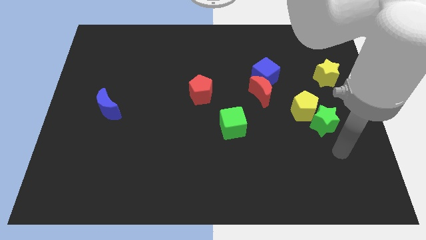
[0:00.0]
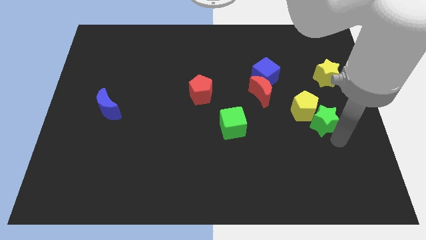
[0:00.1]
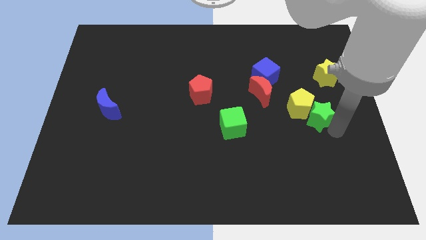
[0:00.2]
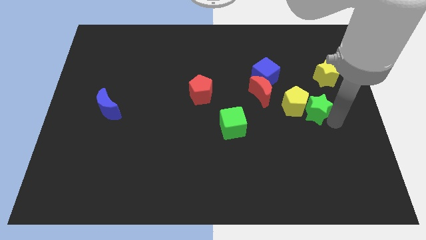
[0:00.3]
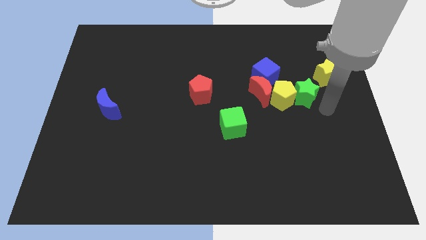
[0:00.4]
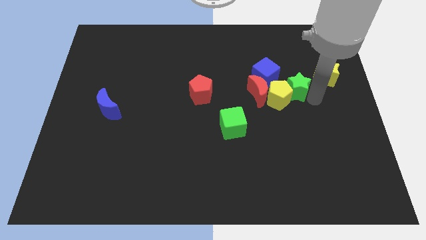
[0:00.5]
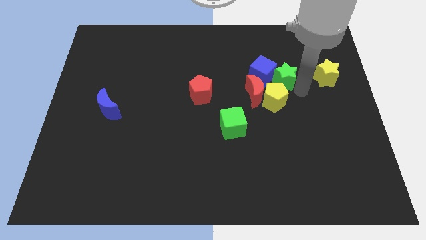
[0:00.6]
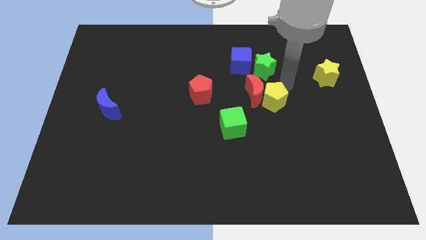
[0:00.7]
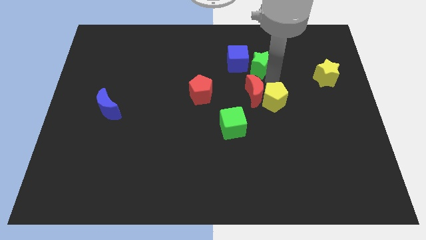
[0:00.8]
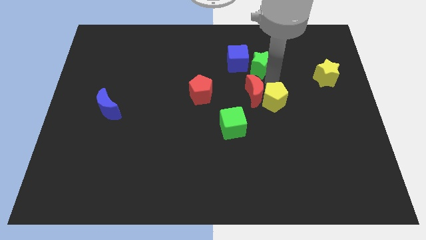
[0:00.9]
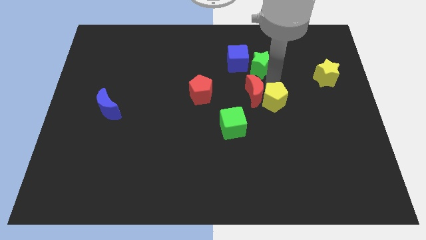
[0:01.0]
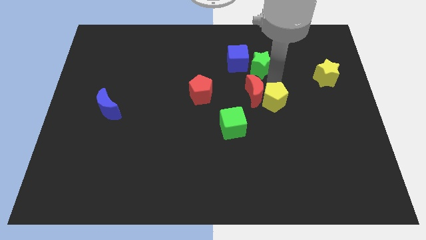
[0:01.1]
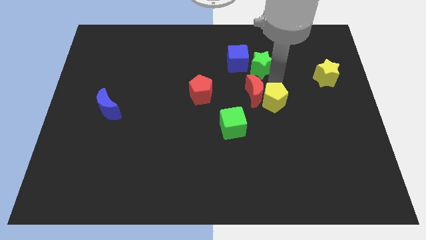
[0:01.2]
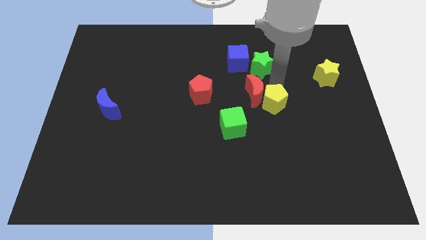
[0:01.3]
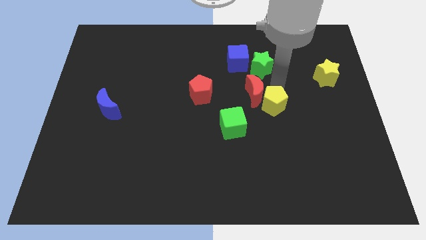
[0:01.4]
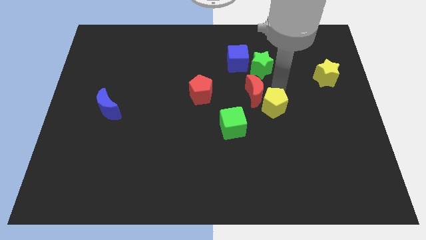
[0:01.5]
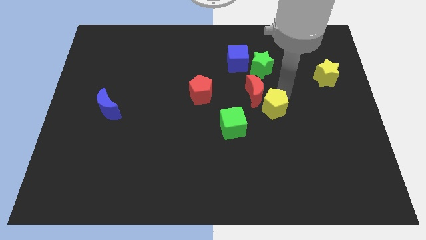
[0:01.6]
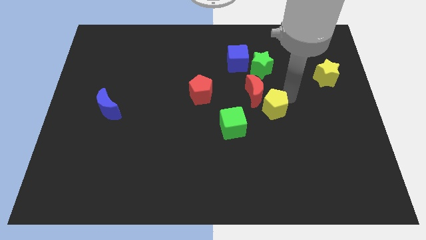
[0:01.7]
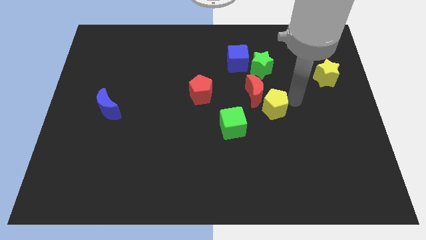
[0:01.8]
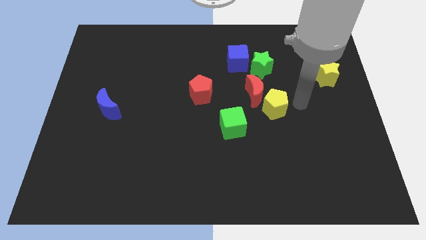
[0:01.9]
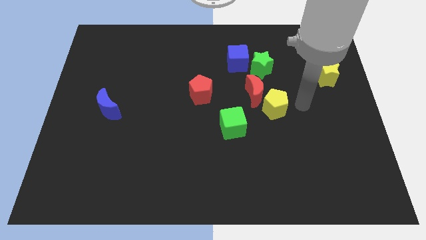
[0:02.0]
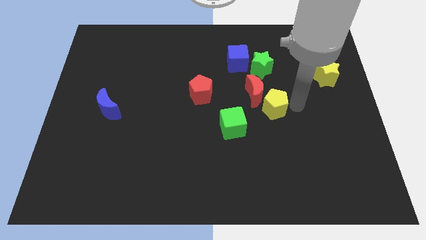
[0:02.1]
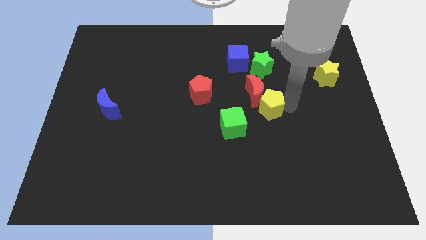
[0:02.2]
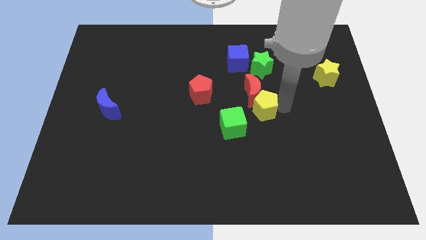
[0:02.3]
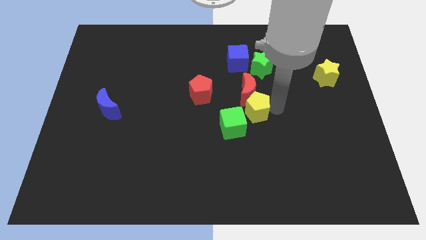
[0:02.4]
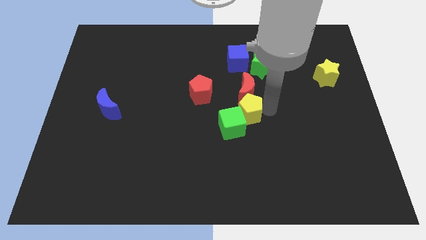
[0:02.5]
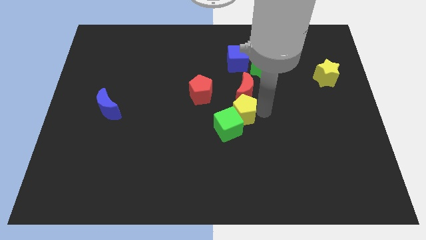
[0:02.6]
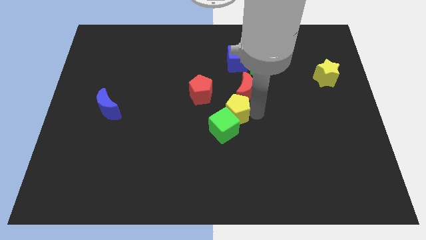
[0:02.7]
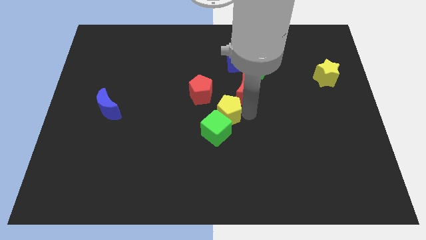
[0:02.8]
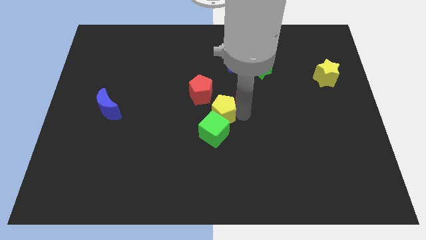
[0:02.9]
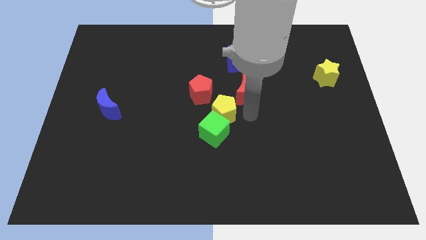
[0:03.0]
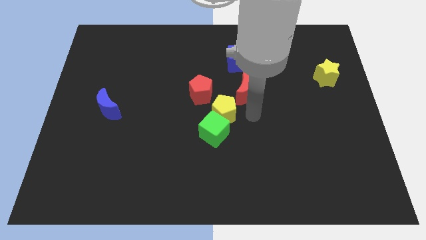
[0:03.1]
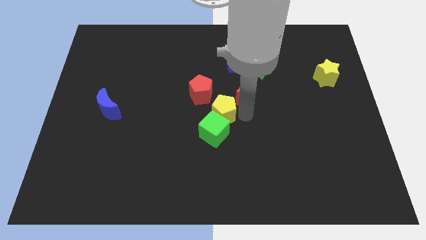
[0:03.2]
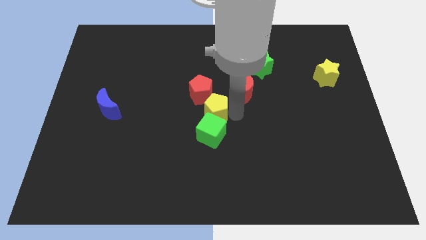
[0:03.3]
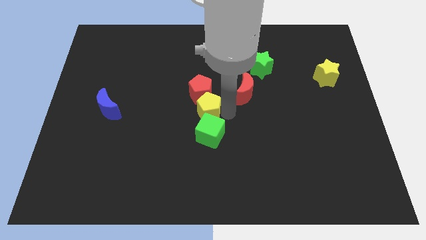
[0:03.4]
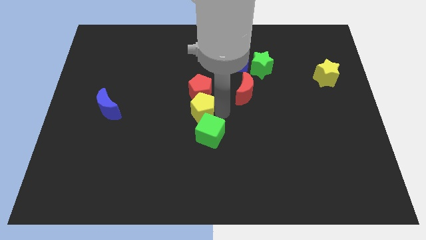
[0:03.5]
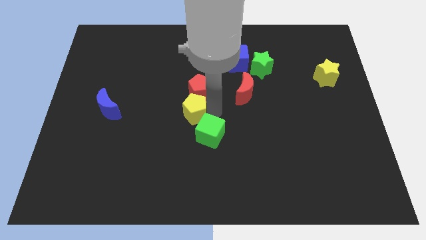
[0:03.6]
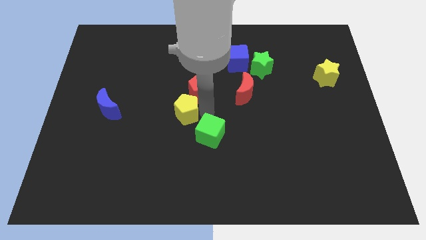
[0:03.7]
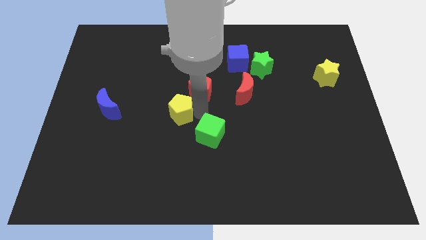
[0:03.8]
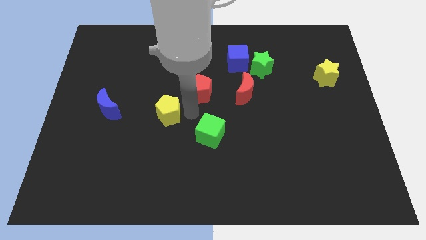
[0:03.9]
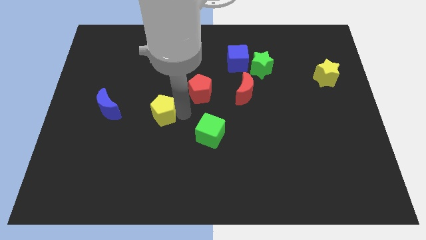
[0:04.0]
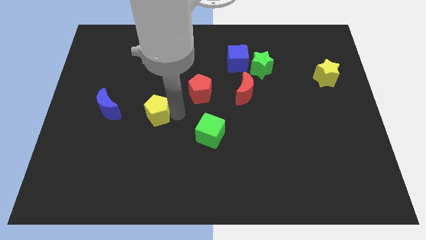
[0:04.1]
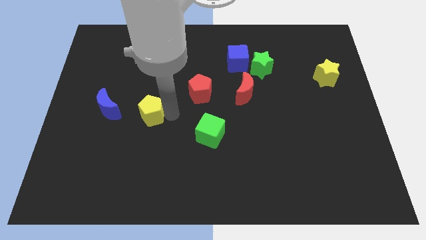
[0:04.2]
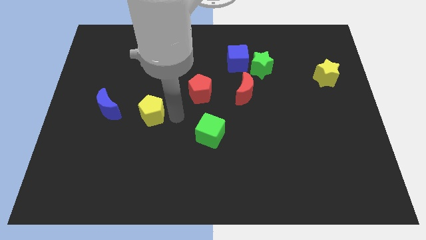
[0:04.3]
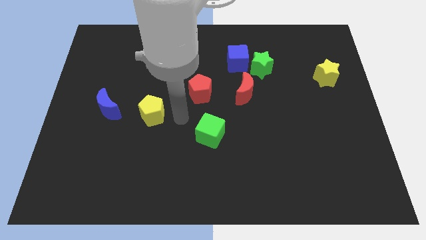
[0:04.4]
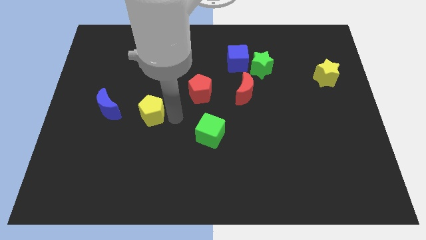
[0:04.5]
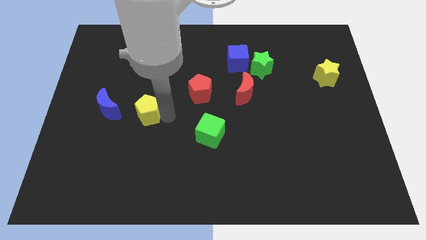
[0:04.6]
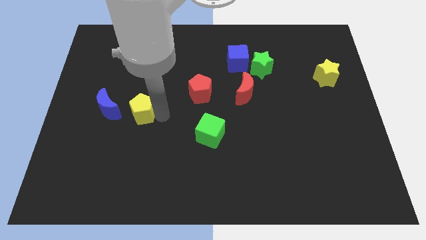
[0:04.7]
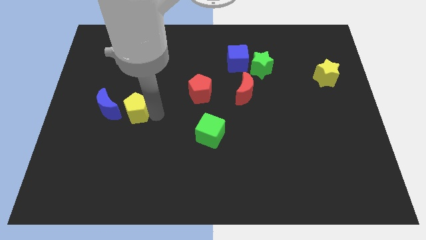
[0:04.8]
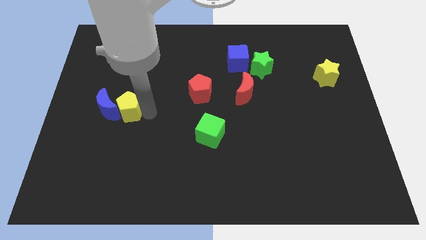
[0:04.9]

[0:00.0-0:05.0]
slide the yellow pentagon next to the blue moon

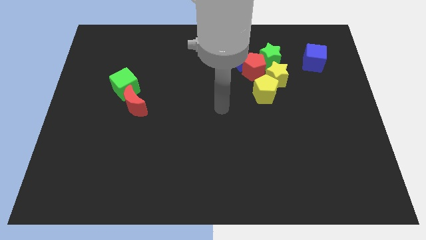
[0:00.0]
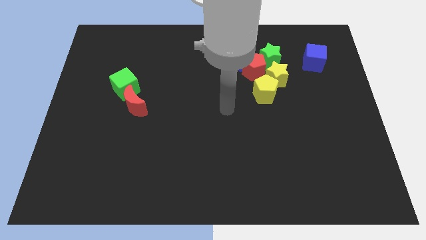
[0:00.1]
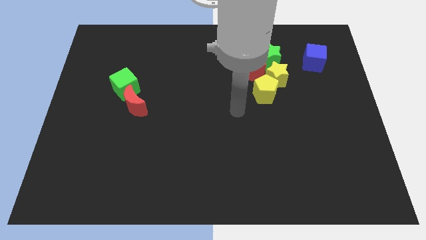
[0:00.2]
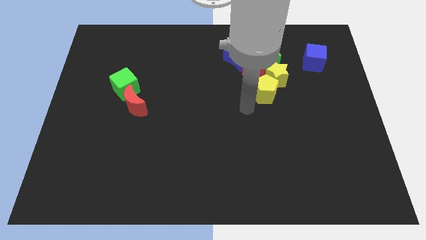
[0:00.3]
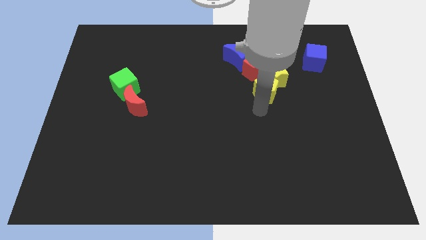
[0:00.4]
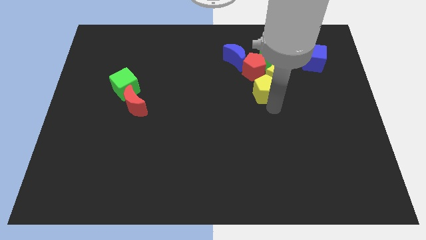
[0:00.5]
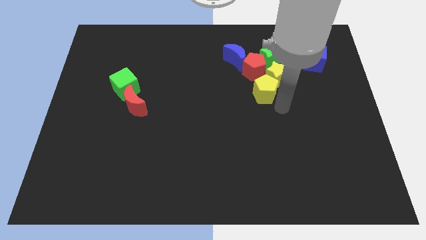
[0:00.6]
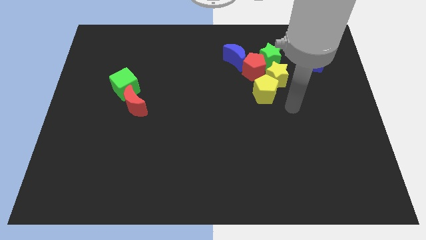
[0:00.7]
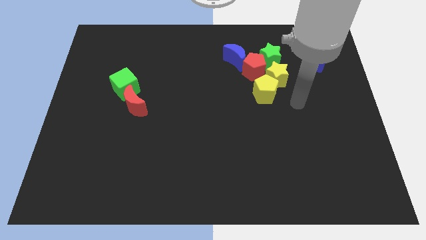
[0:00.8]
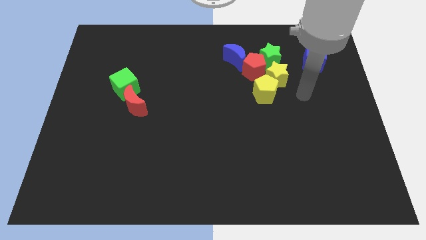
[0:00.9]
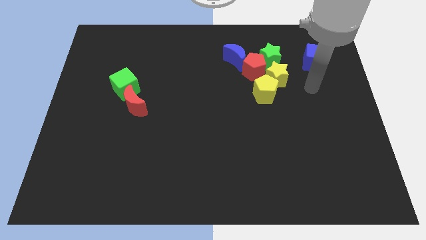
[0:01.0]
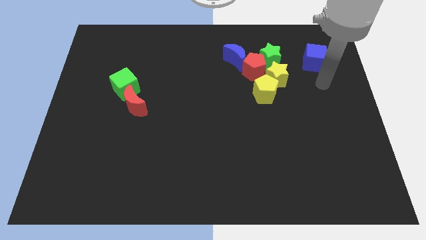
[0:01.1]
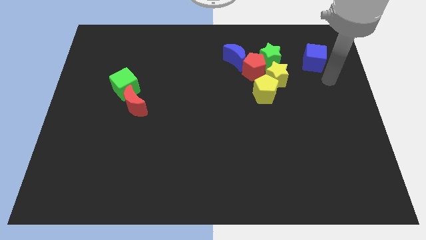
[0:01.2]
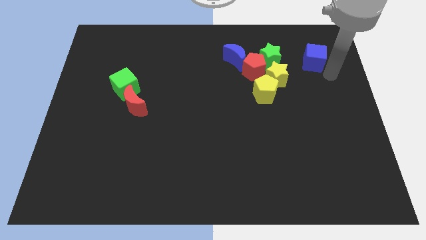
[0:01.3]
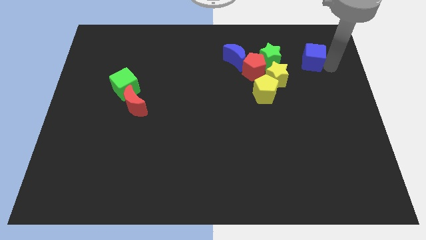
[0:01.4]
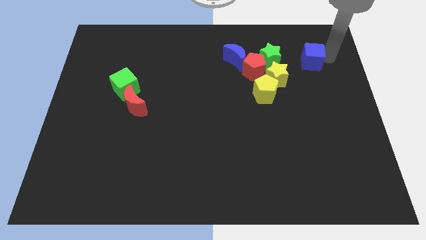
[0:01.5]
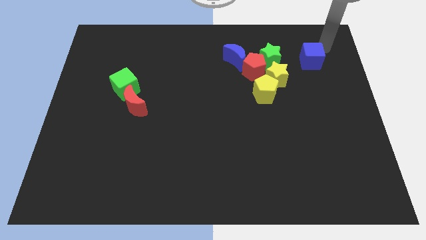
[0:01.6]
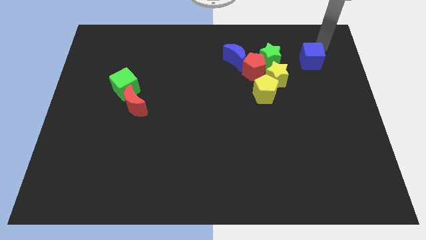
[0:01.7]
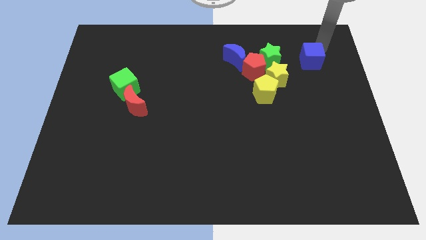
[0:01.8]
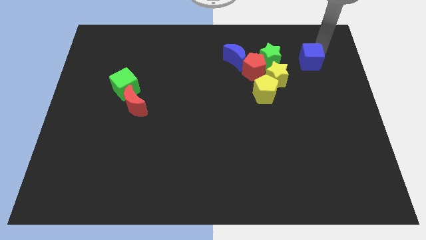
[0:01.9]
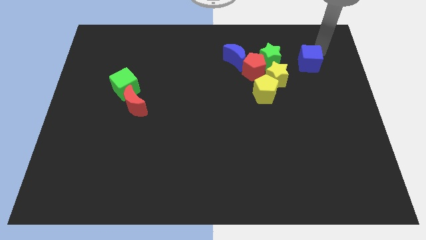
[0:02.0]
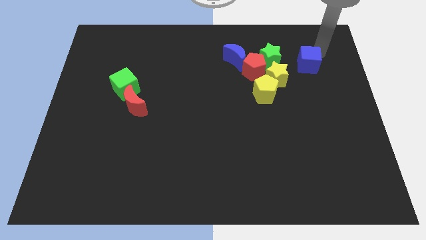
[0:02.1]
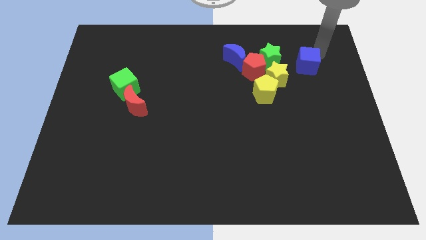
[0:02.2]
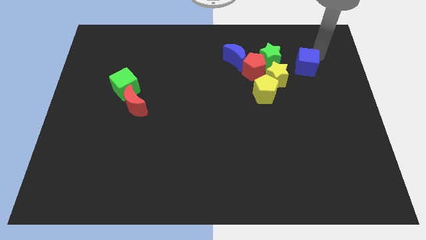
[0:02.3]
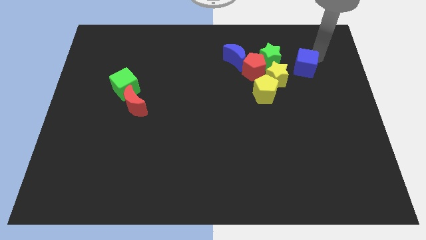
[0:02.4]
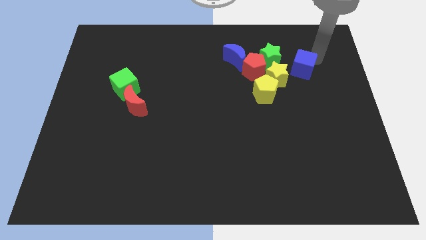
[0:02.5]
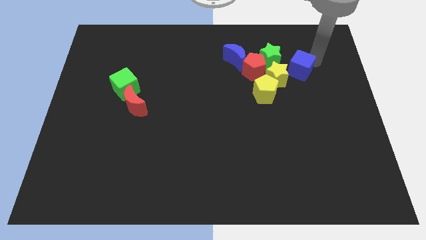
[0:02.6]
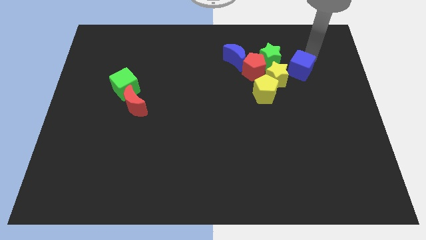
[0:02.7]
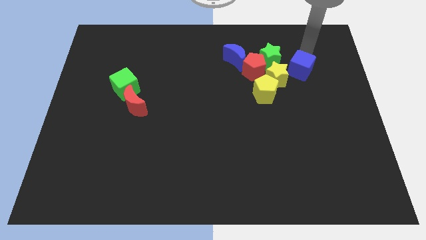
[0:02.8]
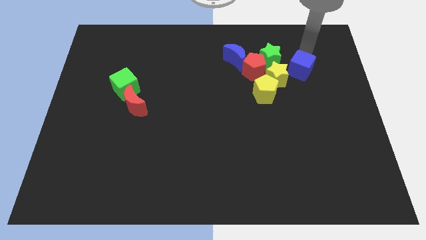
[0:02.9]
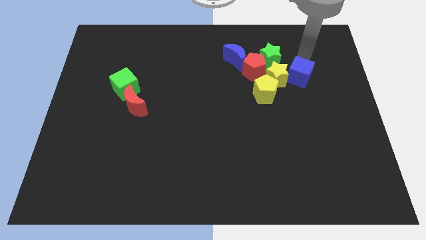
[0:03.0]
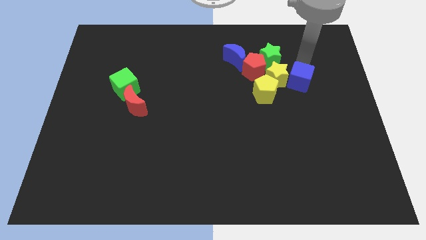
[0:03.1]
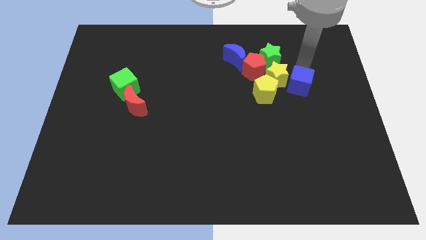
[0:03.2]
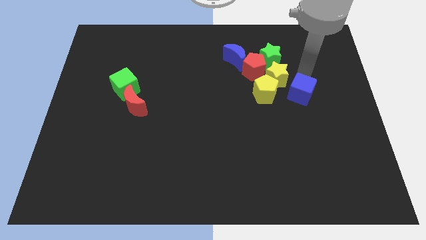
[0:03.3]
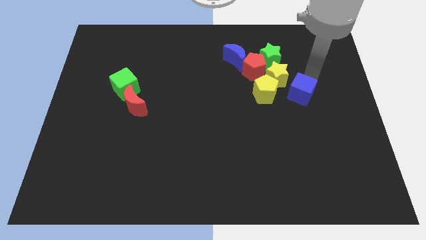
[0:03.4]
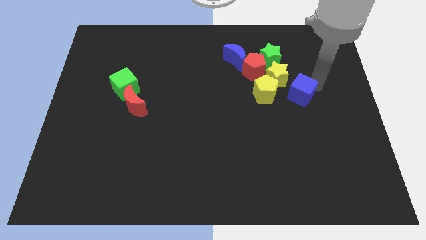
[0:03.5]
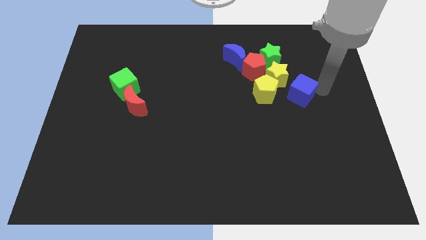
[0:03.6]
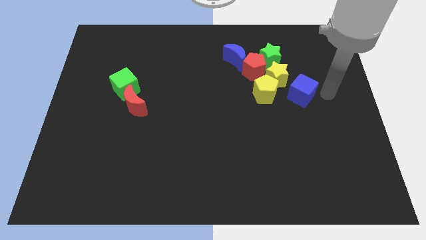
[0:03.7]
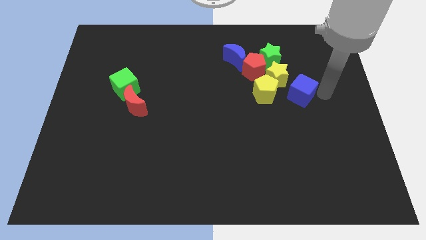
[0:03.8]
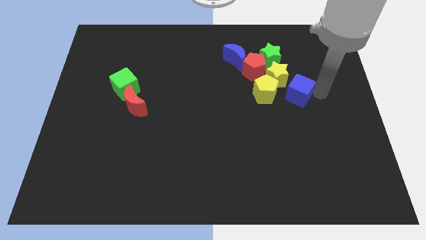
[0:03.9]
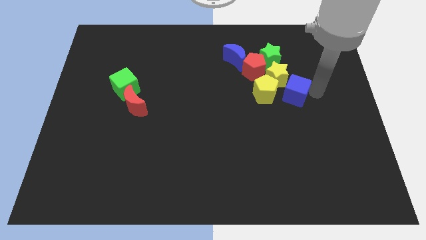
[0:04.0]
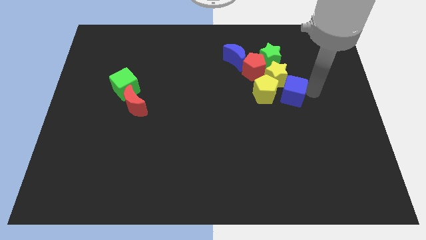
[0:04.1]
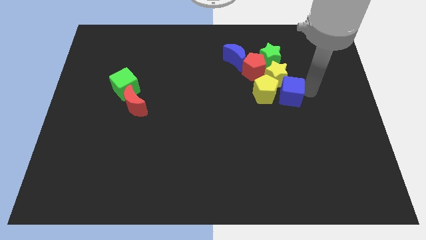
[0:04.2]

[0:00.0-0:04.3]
push the blue cube close to the yellow pentagon
